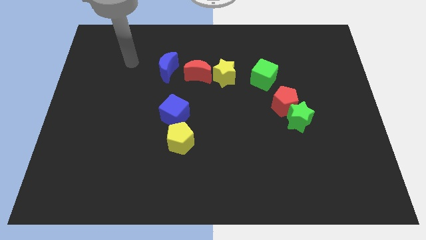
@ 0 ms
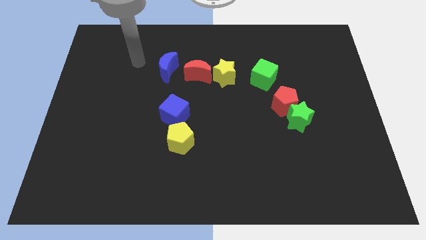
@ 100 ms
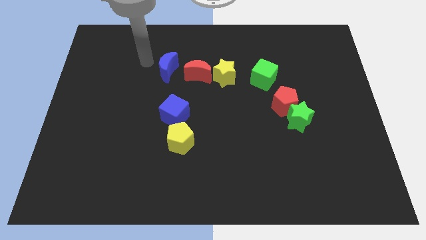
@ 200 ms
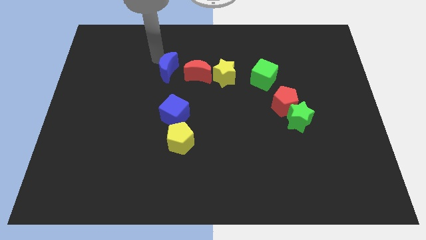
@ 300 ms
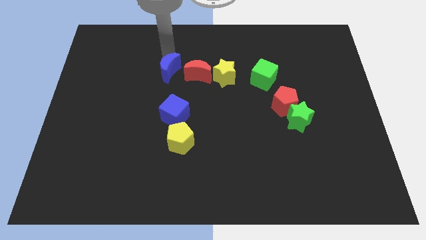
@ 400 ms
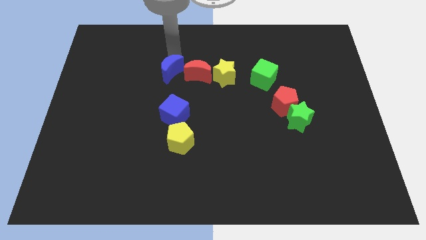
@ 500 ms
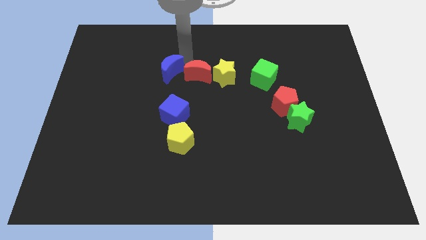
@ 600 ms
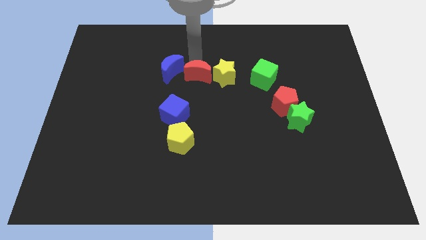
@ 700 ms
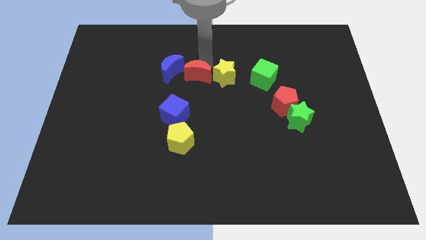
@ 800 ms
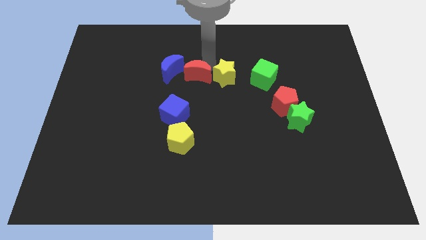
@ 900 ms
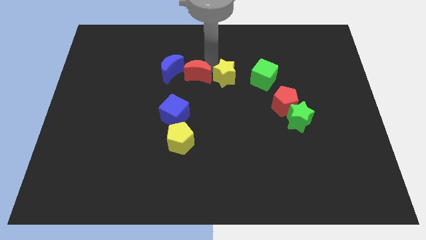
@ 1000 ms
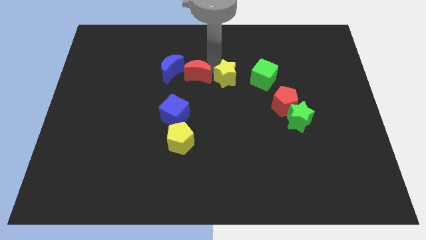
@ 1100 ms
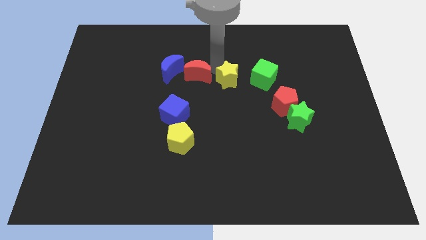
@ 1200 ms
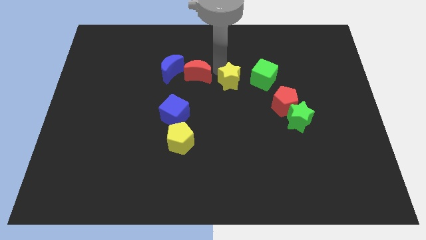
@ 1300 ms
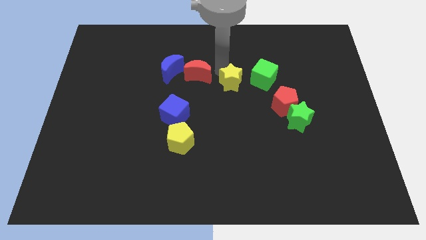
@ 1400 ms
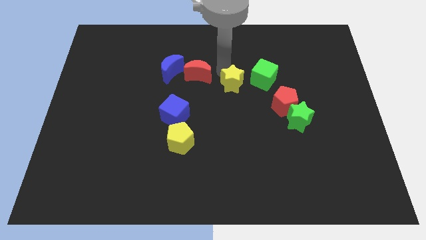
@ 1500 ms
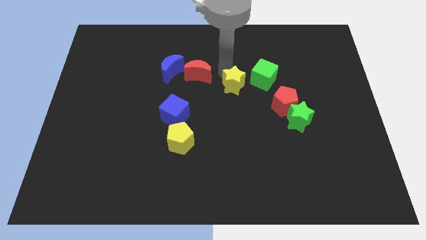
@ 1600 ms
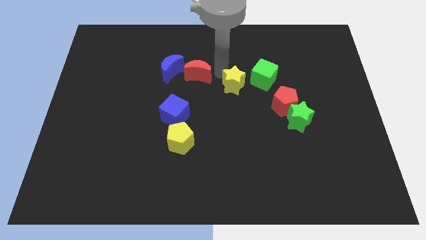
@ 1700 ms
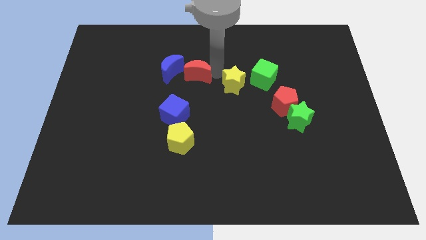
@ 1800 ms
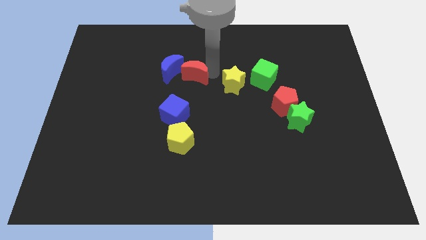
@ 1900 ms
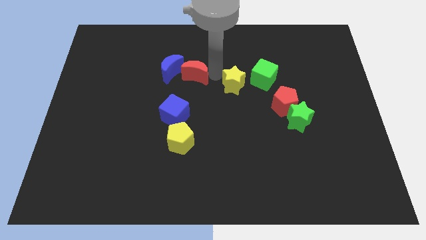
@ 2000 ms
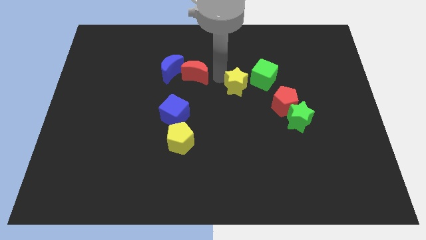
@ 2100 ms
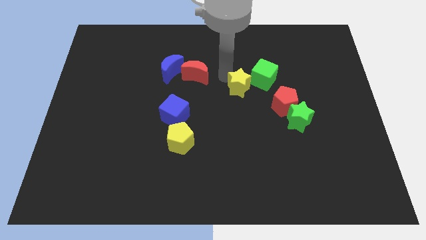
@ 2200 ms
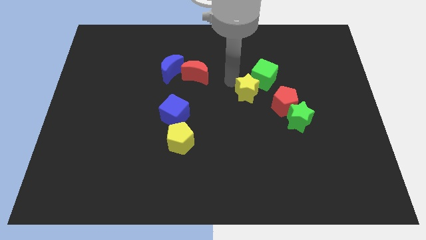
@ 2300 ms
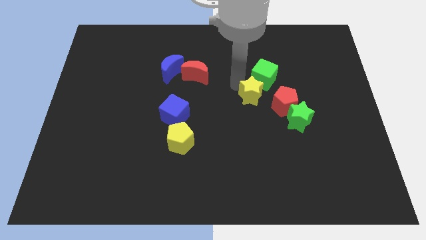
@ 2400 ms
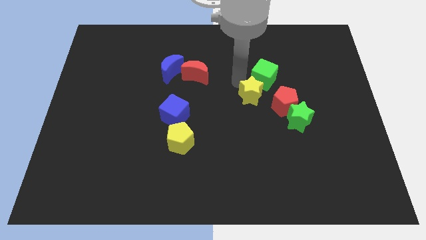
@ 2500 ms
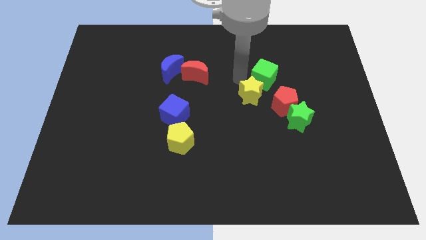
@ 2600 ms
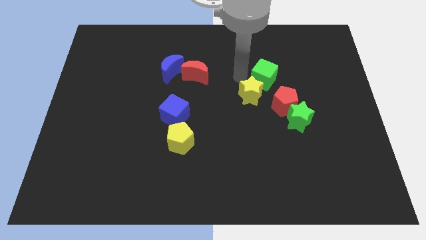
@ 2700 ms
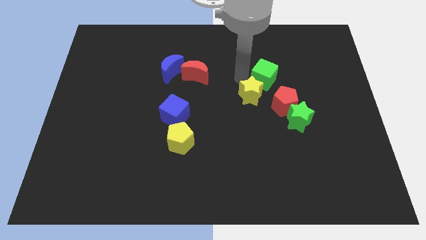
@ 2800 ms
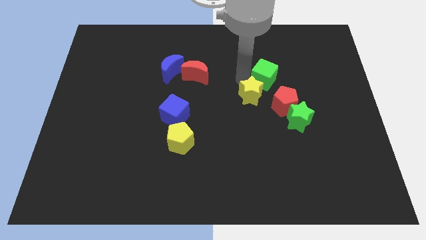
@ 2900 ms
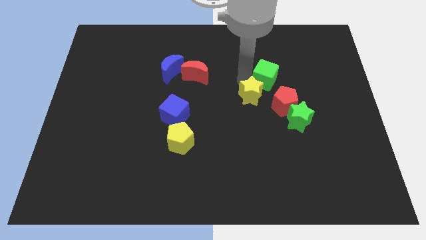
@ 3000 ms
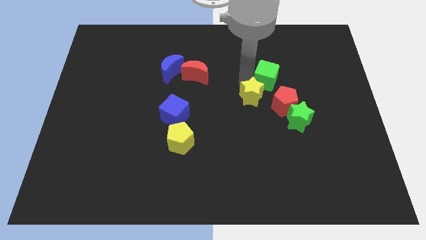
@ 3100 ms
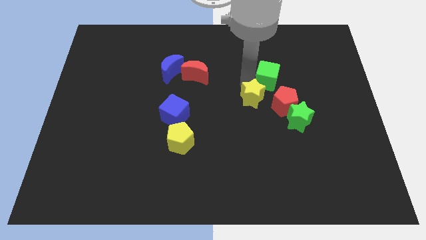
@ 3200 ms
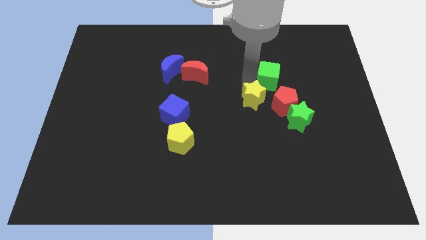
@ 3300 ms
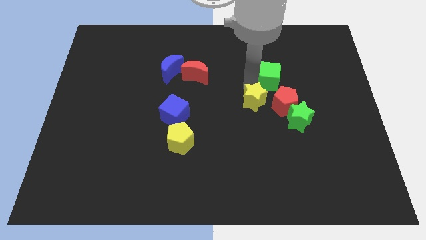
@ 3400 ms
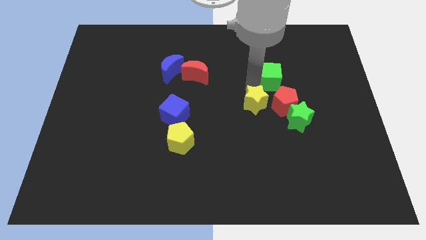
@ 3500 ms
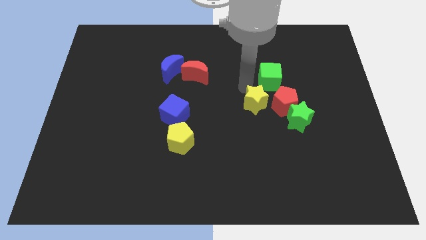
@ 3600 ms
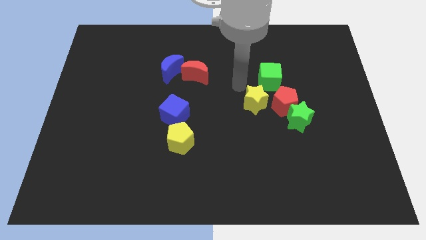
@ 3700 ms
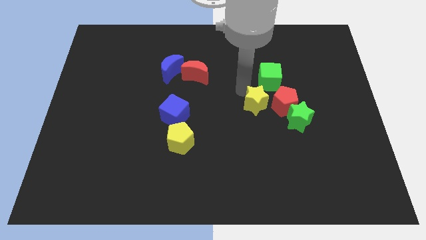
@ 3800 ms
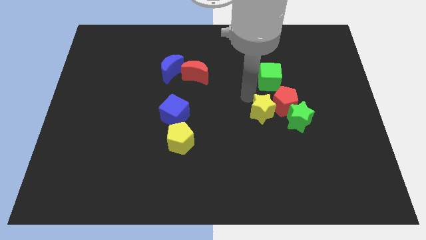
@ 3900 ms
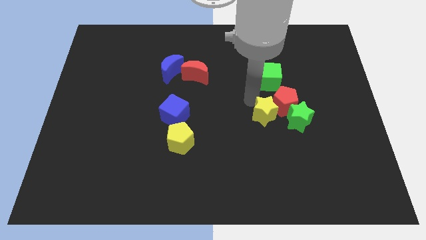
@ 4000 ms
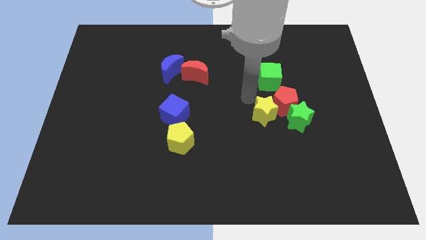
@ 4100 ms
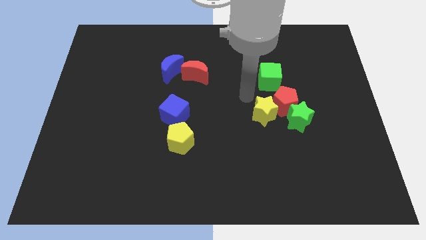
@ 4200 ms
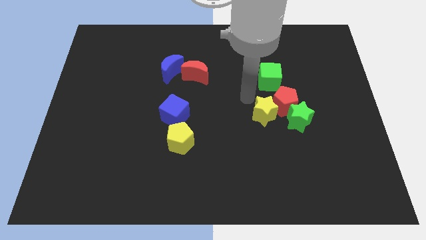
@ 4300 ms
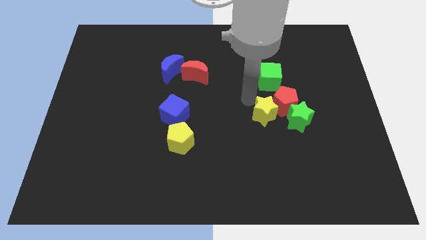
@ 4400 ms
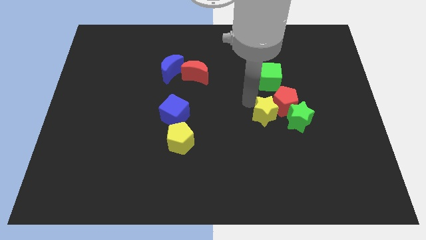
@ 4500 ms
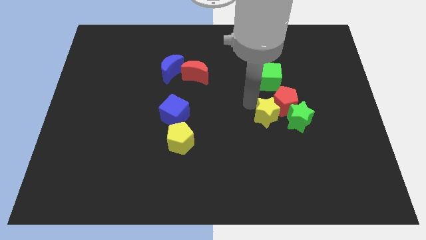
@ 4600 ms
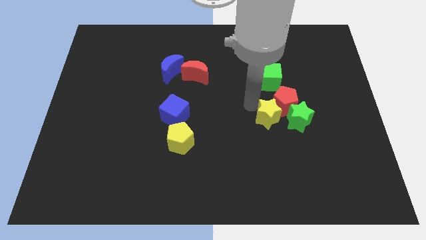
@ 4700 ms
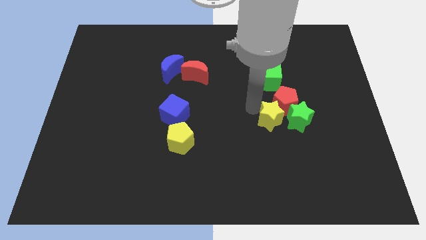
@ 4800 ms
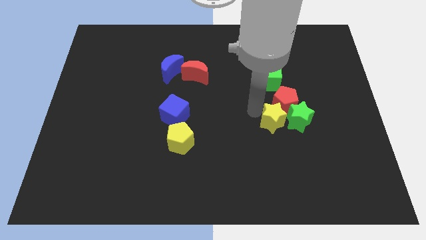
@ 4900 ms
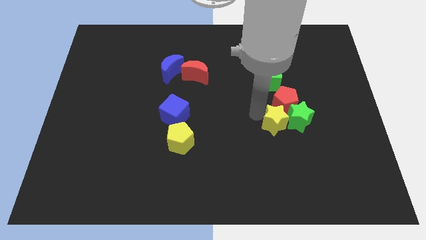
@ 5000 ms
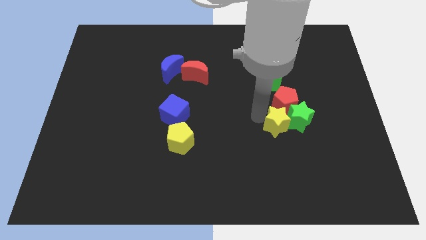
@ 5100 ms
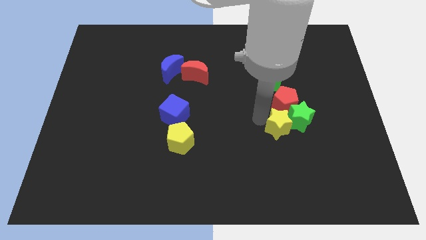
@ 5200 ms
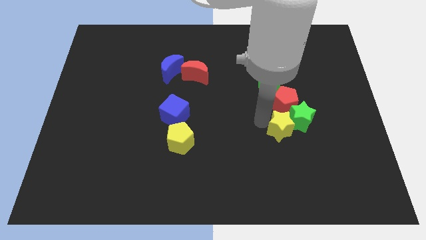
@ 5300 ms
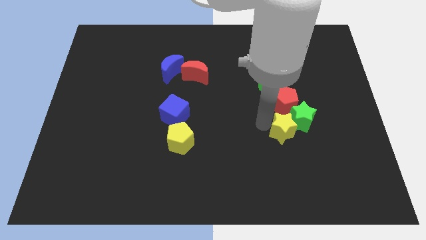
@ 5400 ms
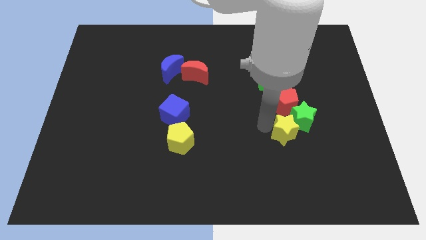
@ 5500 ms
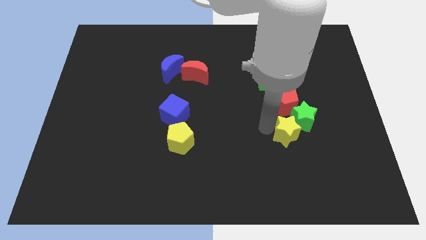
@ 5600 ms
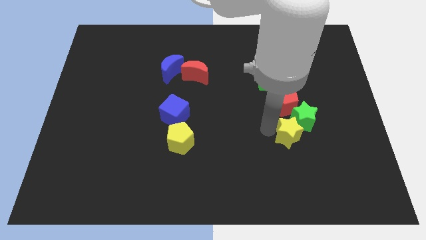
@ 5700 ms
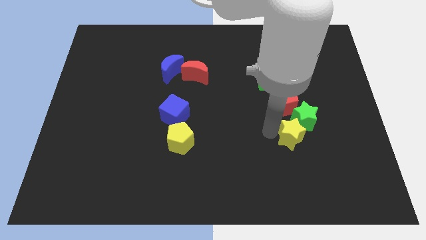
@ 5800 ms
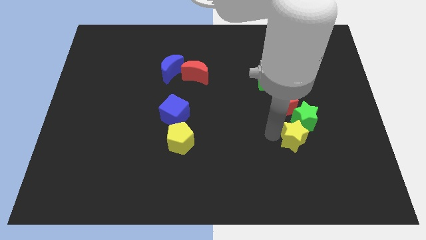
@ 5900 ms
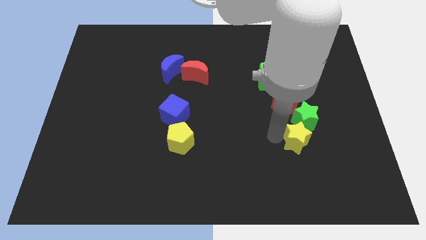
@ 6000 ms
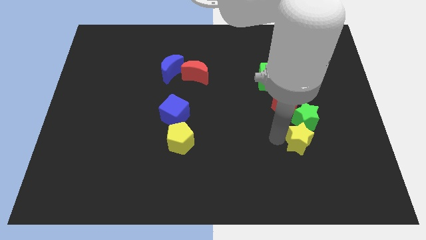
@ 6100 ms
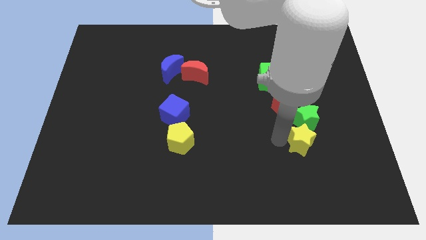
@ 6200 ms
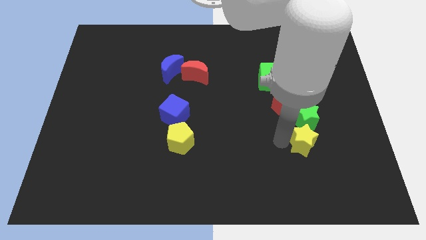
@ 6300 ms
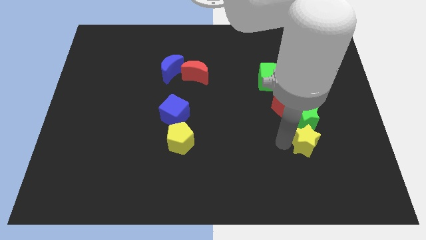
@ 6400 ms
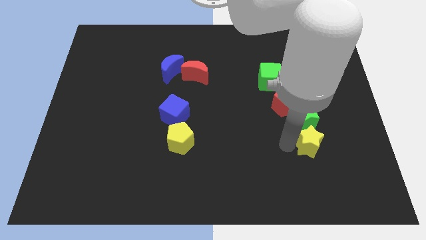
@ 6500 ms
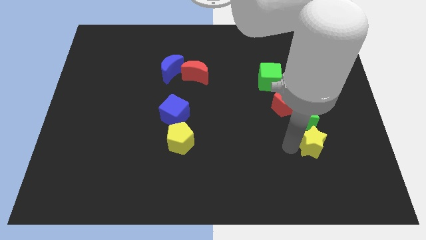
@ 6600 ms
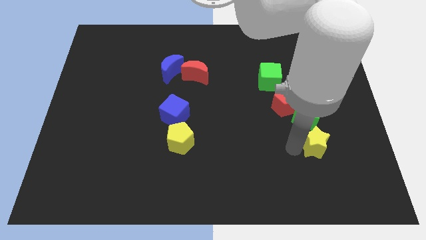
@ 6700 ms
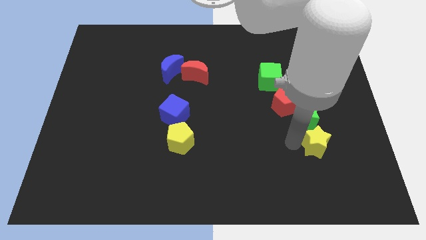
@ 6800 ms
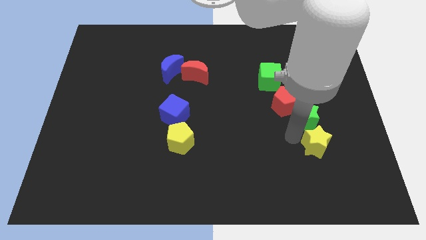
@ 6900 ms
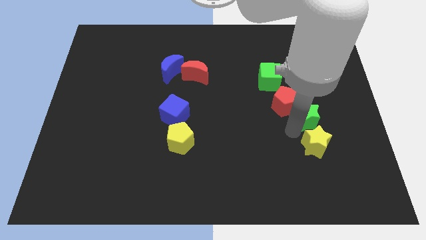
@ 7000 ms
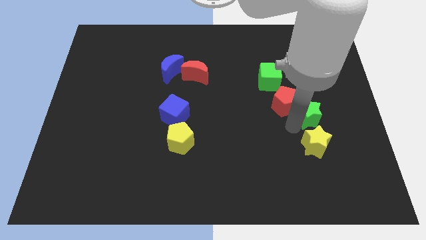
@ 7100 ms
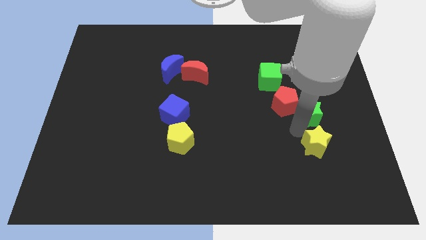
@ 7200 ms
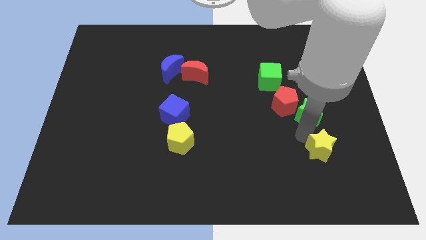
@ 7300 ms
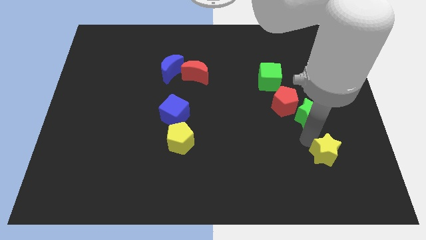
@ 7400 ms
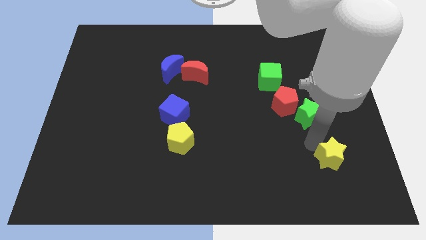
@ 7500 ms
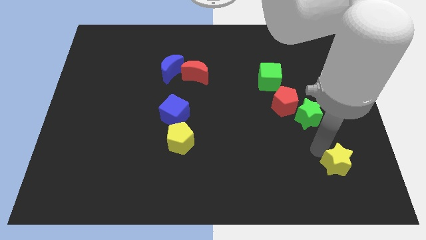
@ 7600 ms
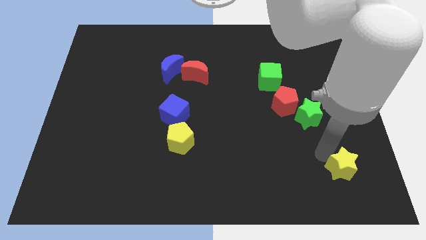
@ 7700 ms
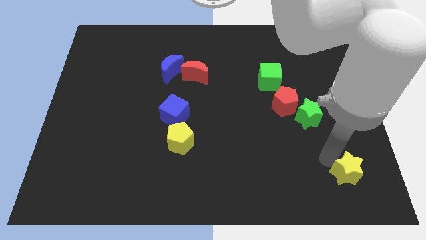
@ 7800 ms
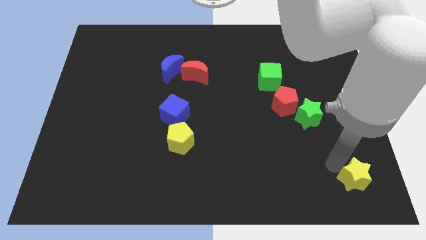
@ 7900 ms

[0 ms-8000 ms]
slide the yellow star to the bottom right corner
